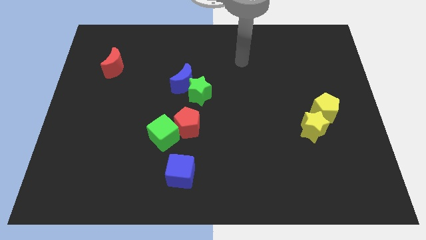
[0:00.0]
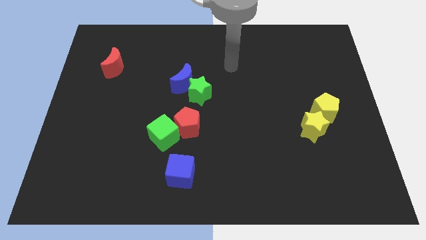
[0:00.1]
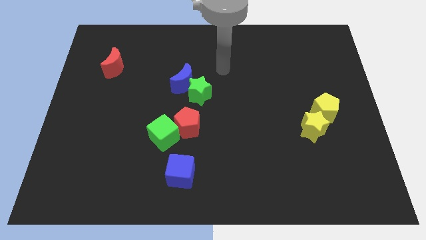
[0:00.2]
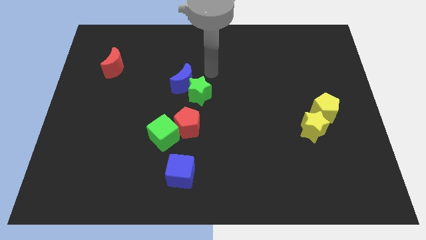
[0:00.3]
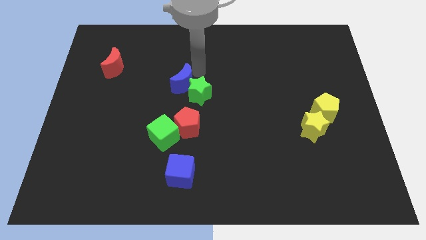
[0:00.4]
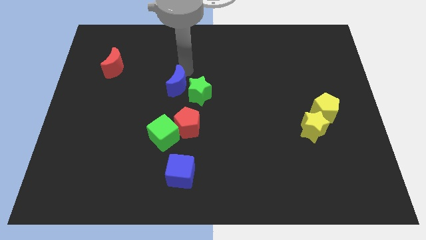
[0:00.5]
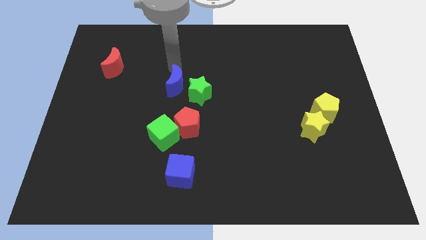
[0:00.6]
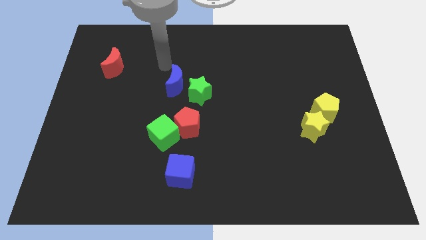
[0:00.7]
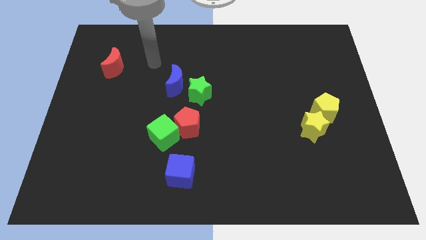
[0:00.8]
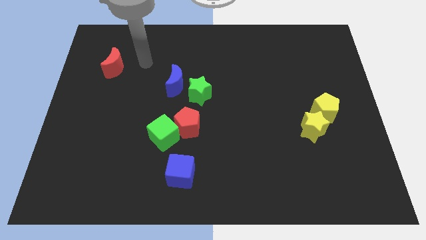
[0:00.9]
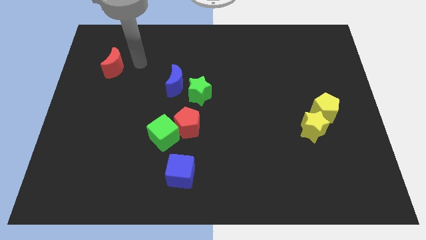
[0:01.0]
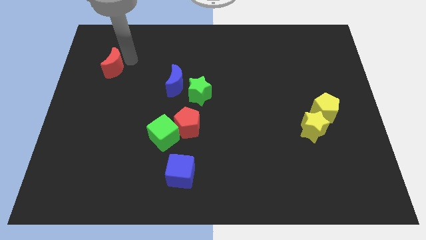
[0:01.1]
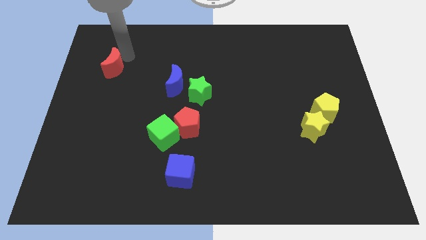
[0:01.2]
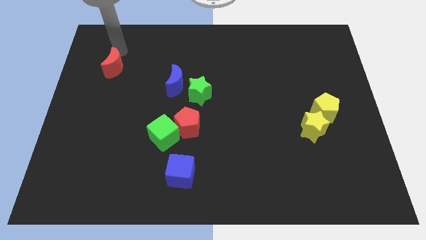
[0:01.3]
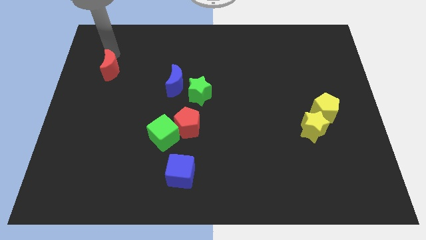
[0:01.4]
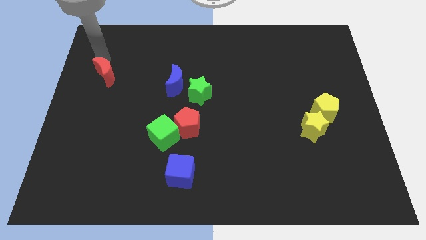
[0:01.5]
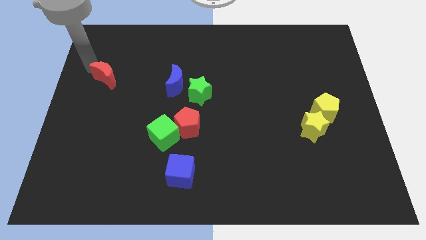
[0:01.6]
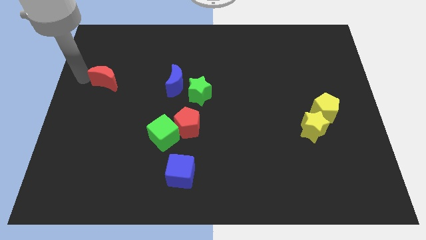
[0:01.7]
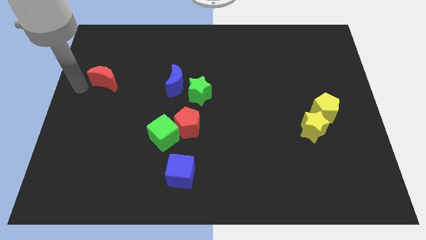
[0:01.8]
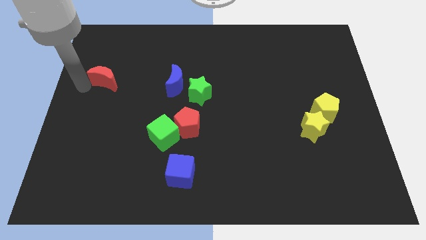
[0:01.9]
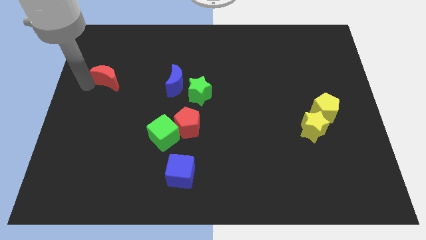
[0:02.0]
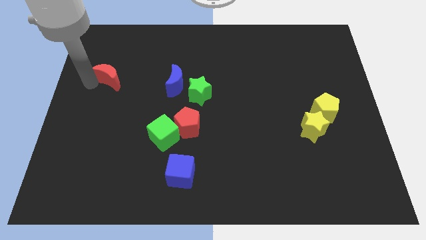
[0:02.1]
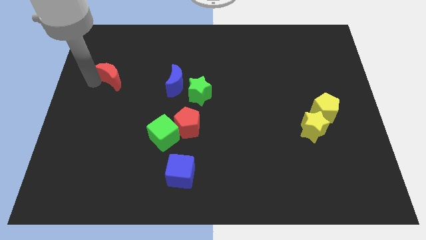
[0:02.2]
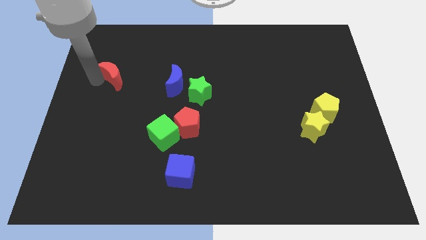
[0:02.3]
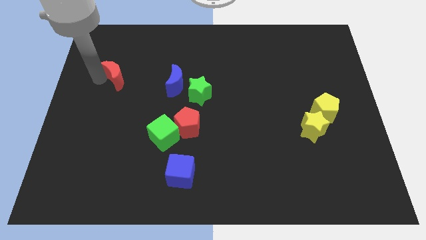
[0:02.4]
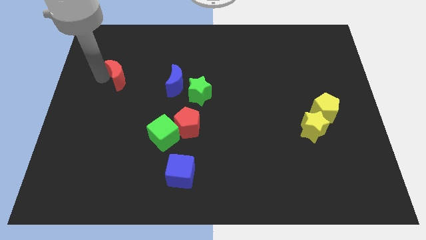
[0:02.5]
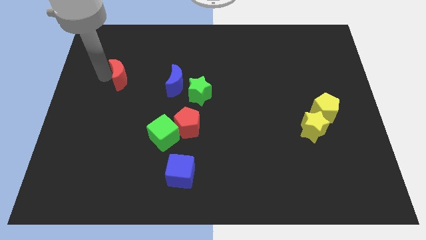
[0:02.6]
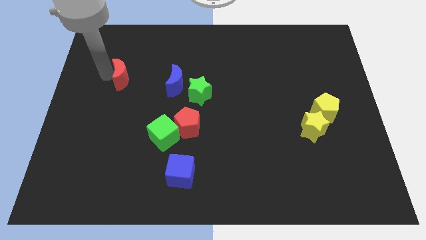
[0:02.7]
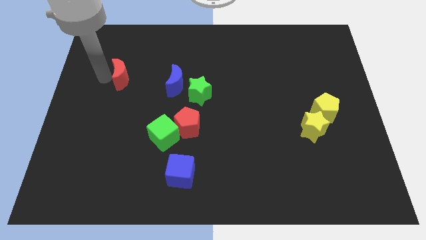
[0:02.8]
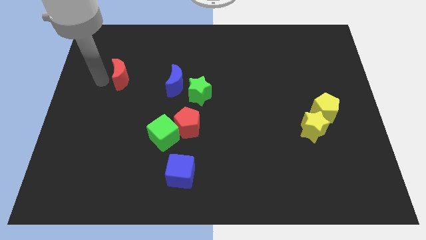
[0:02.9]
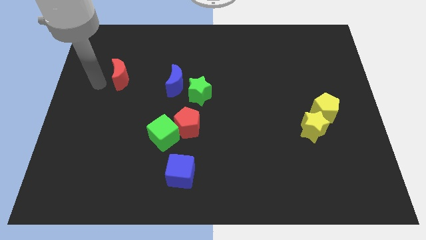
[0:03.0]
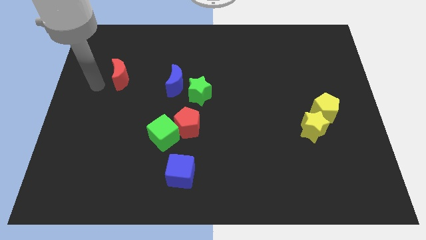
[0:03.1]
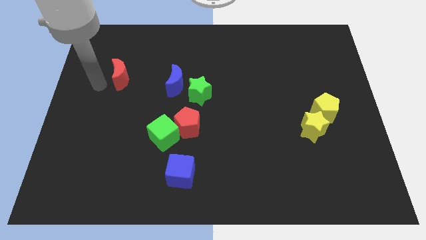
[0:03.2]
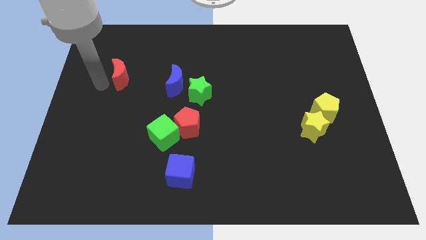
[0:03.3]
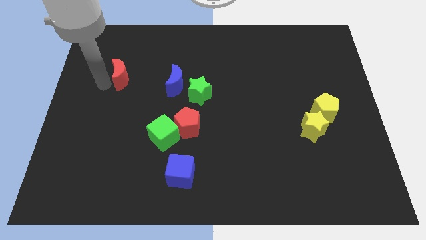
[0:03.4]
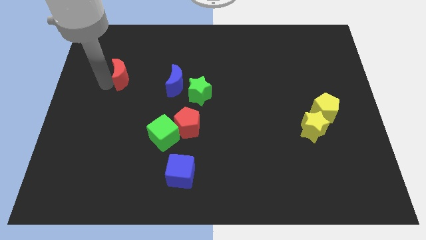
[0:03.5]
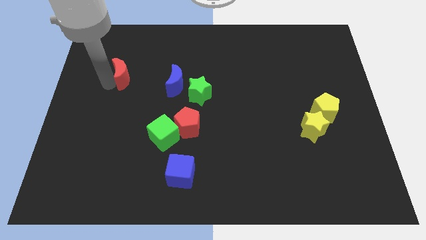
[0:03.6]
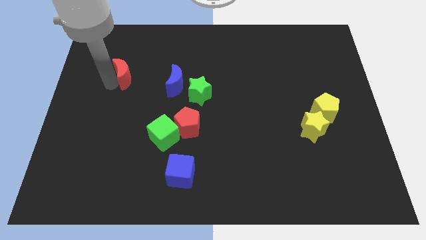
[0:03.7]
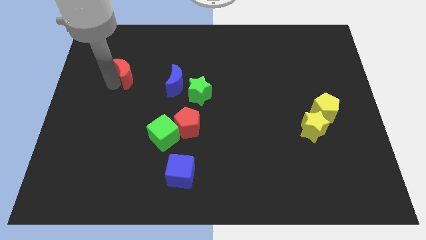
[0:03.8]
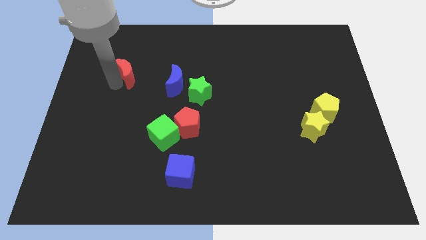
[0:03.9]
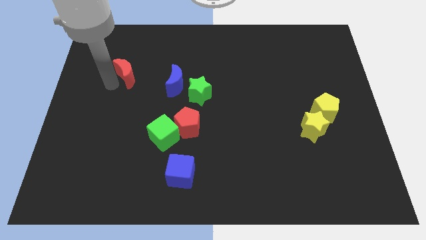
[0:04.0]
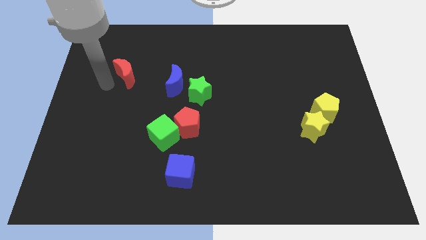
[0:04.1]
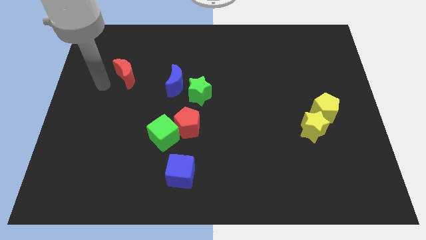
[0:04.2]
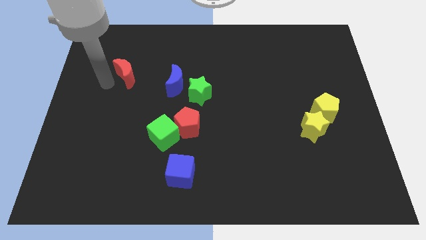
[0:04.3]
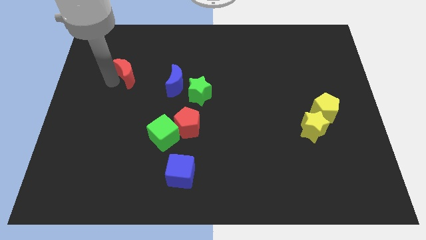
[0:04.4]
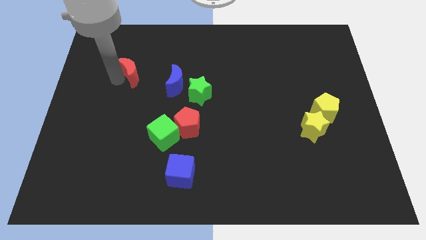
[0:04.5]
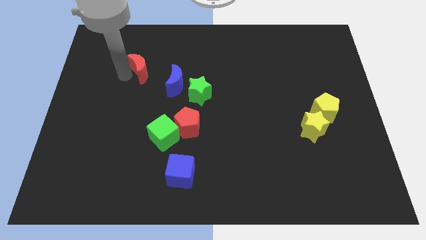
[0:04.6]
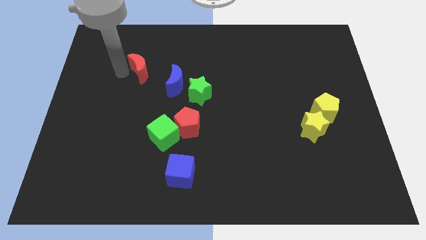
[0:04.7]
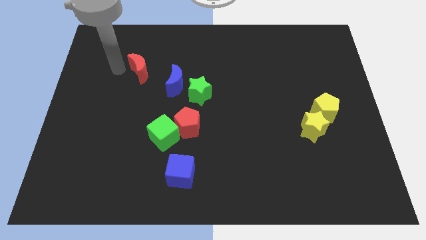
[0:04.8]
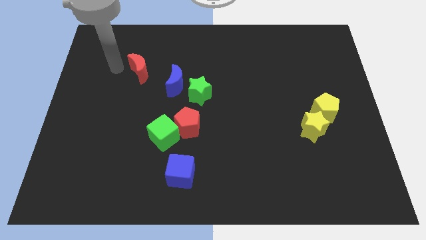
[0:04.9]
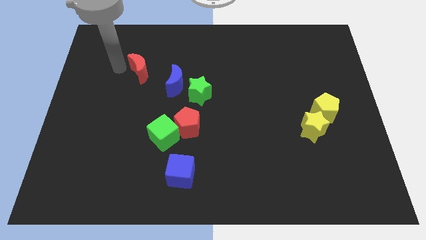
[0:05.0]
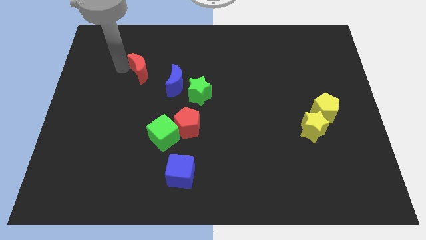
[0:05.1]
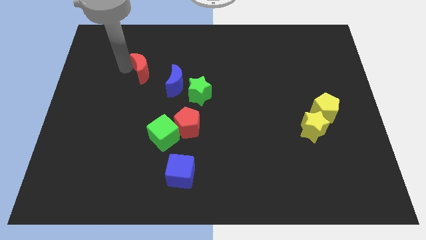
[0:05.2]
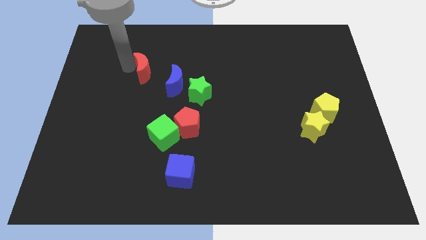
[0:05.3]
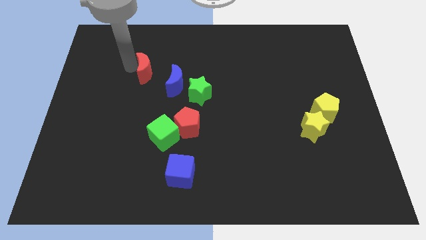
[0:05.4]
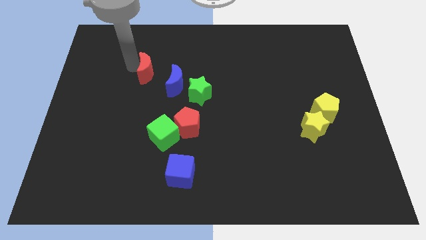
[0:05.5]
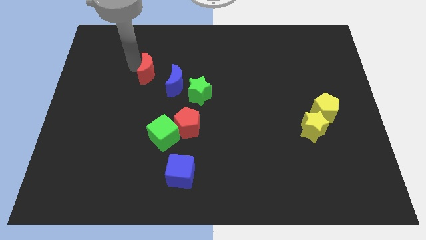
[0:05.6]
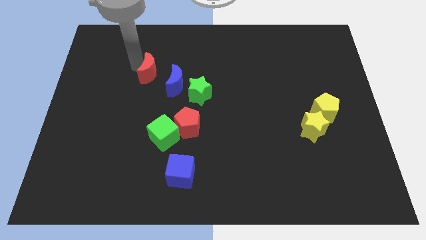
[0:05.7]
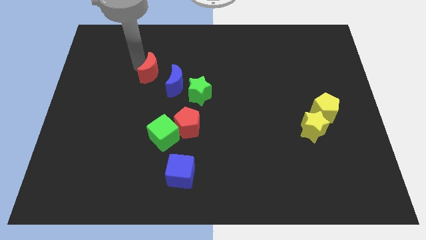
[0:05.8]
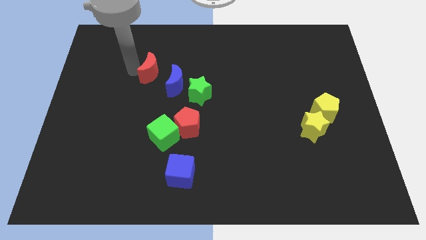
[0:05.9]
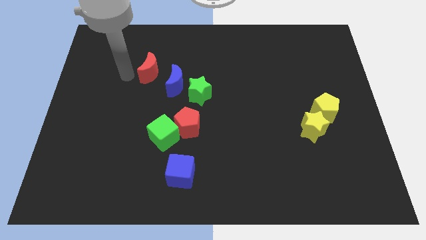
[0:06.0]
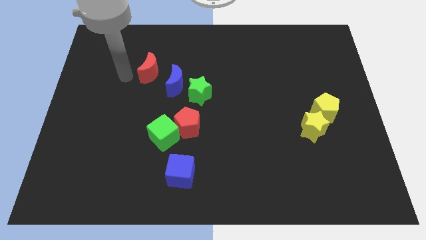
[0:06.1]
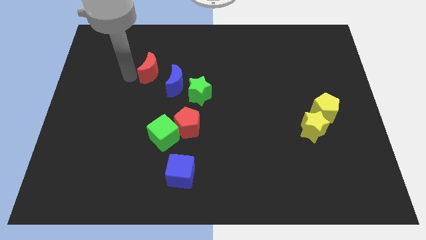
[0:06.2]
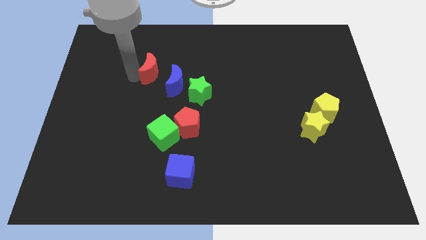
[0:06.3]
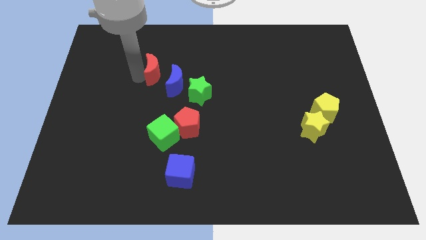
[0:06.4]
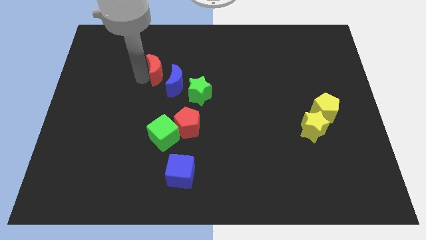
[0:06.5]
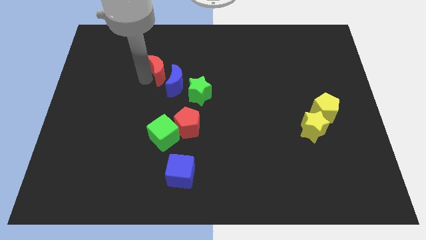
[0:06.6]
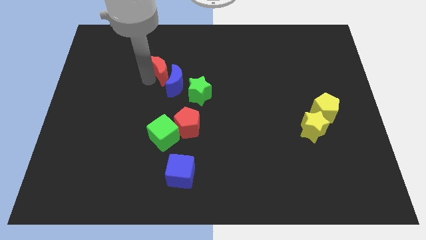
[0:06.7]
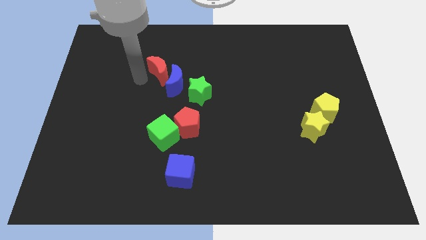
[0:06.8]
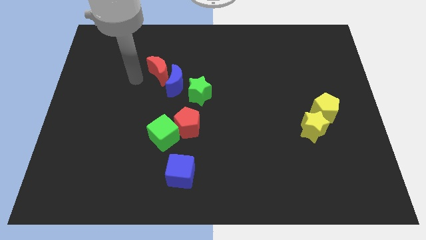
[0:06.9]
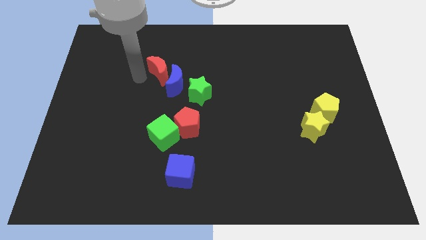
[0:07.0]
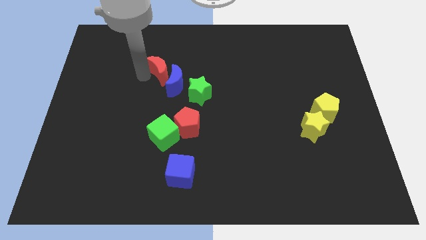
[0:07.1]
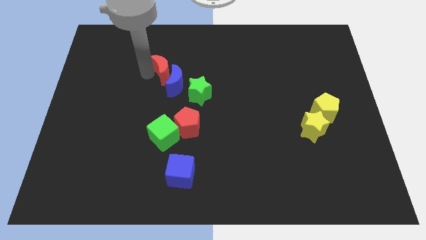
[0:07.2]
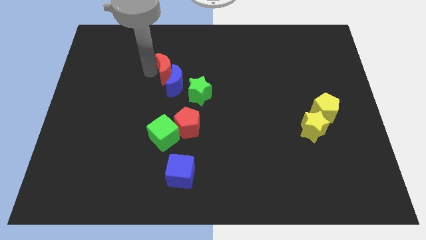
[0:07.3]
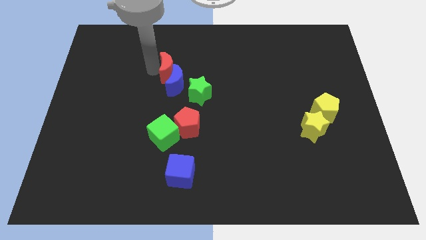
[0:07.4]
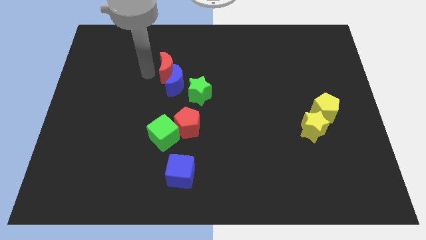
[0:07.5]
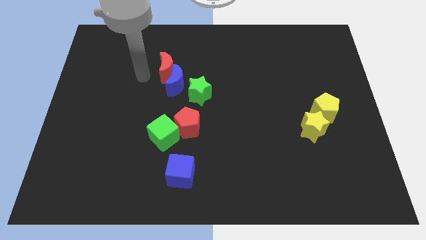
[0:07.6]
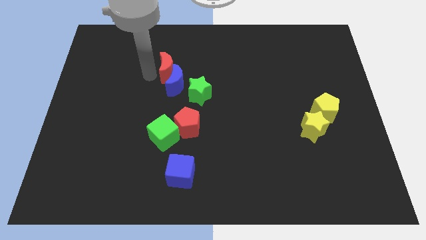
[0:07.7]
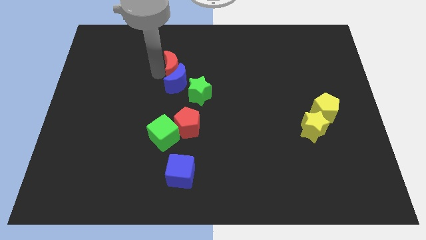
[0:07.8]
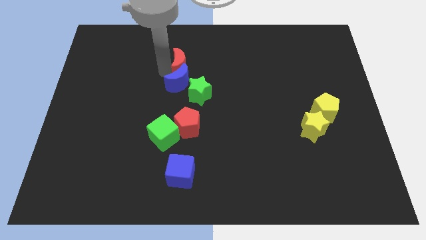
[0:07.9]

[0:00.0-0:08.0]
push the red moon to the top of the green star
